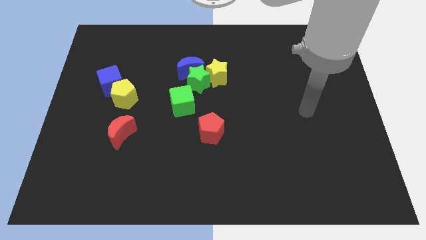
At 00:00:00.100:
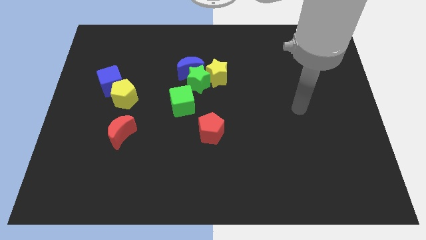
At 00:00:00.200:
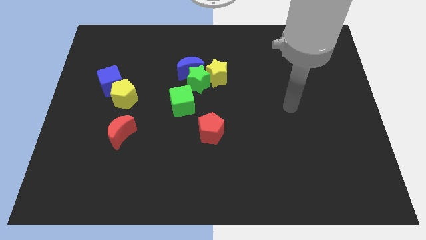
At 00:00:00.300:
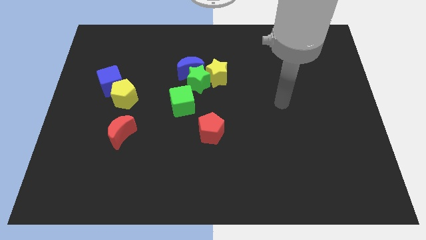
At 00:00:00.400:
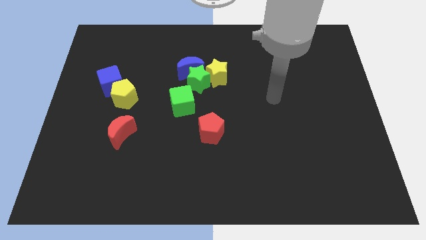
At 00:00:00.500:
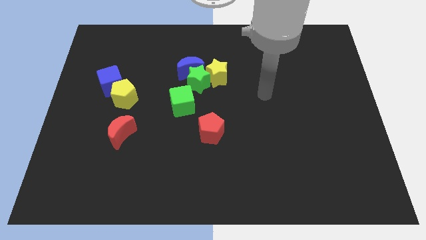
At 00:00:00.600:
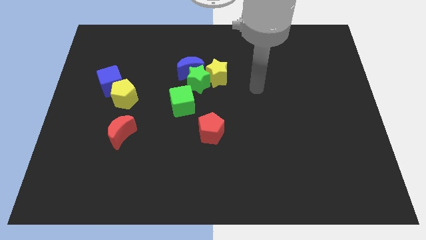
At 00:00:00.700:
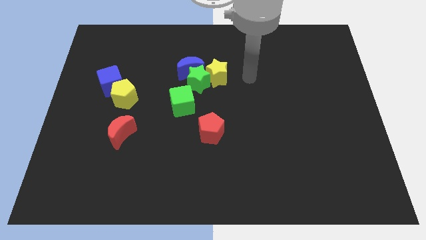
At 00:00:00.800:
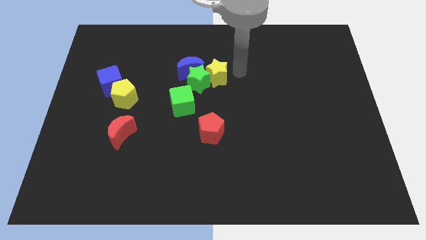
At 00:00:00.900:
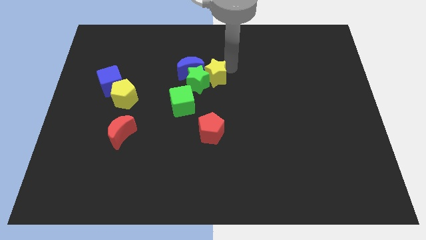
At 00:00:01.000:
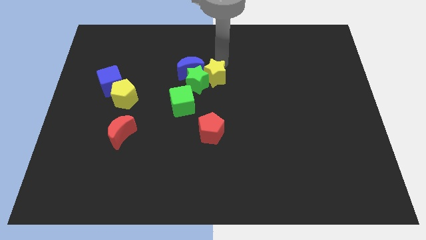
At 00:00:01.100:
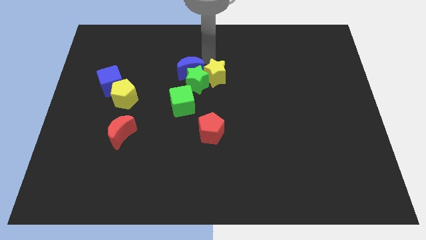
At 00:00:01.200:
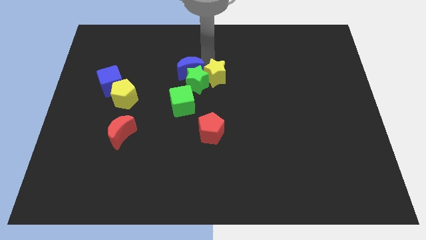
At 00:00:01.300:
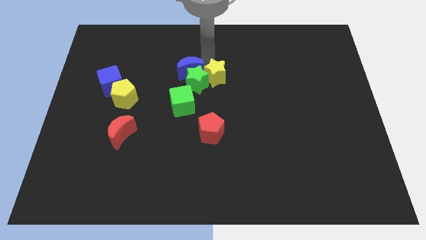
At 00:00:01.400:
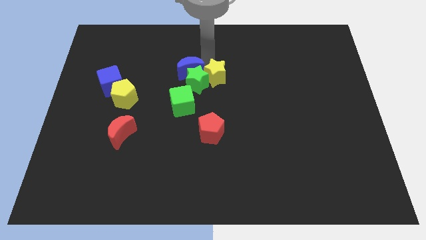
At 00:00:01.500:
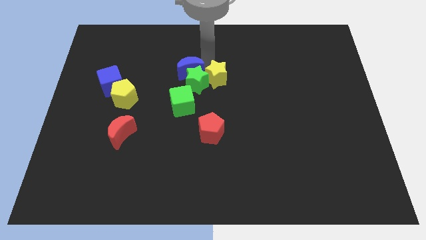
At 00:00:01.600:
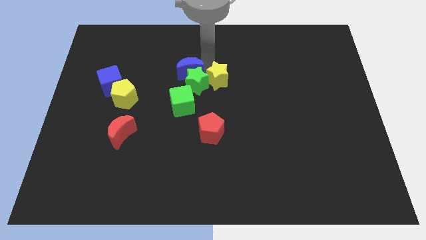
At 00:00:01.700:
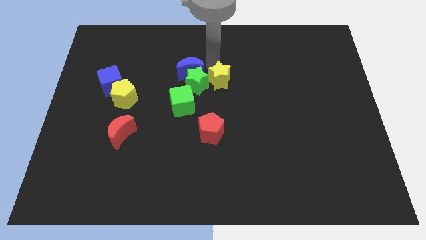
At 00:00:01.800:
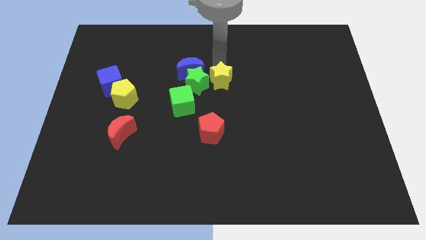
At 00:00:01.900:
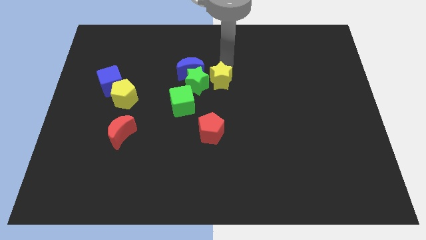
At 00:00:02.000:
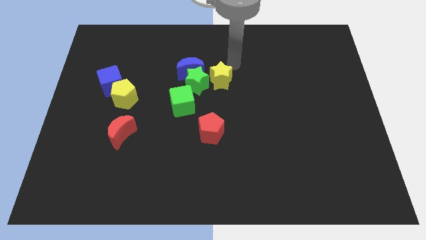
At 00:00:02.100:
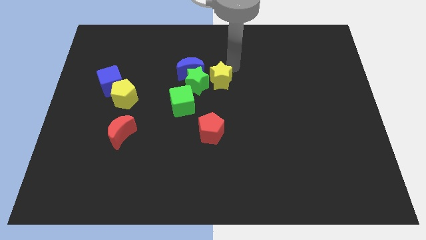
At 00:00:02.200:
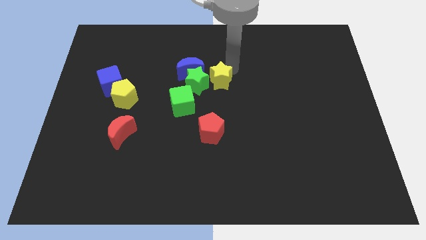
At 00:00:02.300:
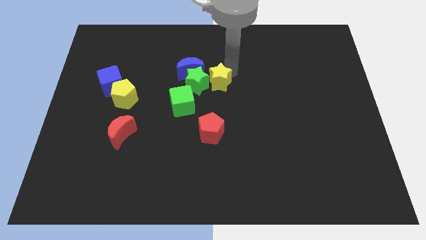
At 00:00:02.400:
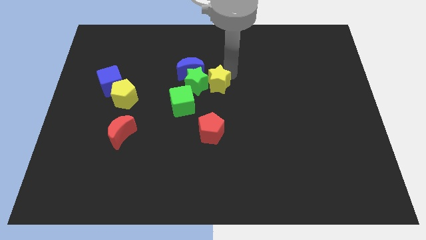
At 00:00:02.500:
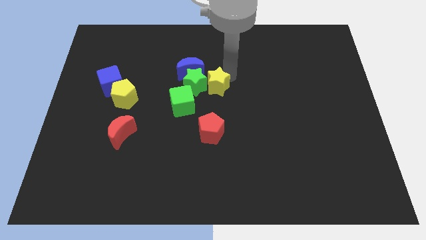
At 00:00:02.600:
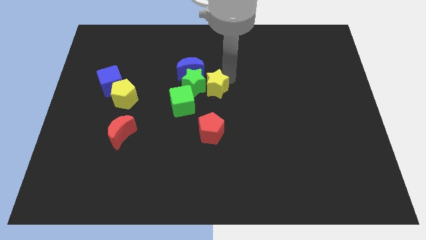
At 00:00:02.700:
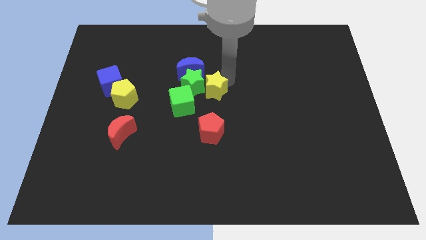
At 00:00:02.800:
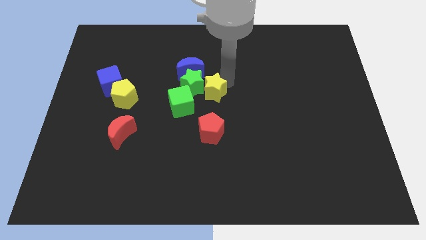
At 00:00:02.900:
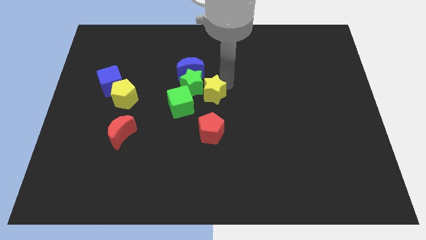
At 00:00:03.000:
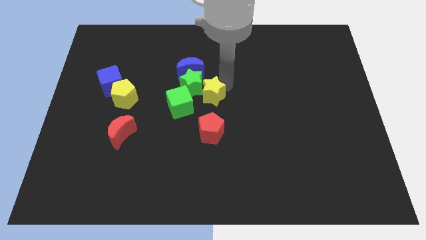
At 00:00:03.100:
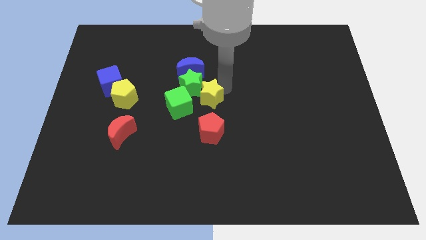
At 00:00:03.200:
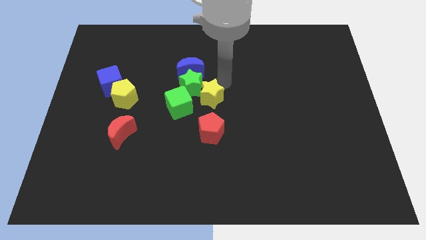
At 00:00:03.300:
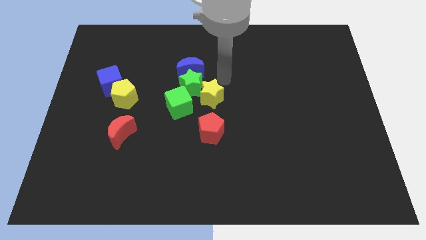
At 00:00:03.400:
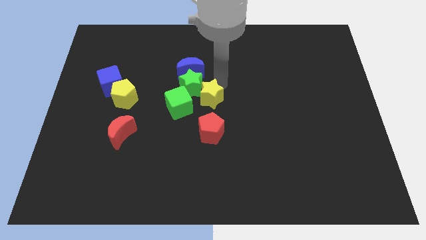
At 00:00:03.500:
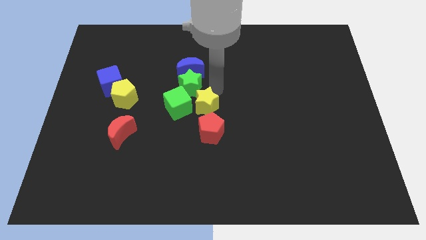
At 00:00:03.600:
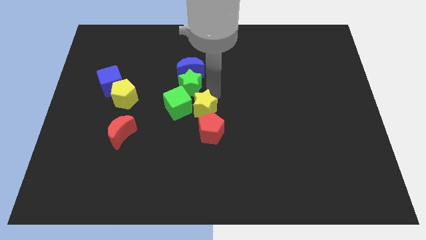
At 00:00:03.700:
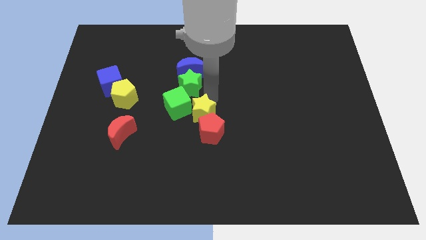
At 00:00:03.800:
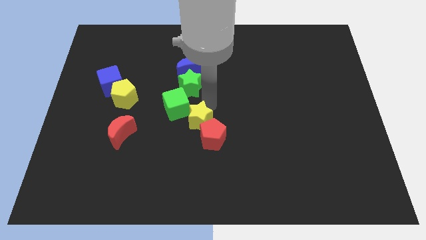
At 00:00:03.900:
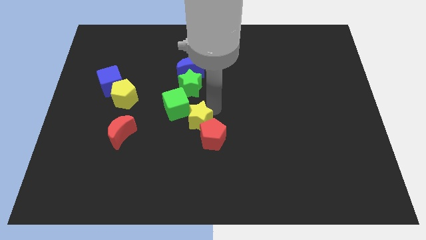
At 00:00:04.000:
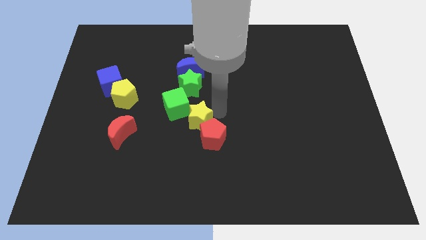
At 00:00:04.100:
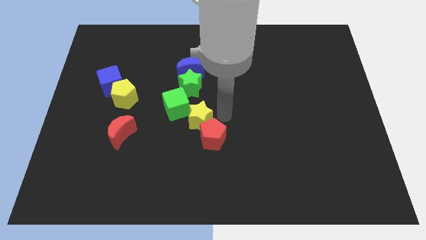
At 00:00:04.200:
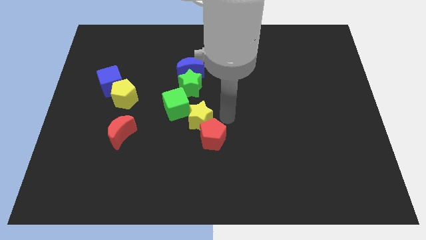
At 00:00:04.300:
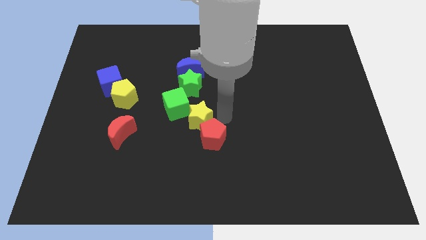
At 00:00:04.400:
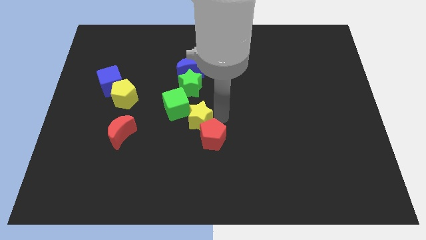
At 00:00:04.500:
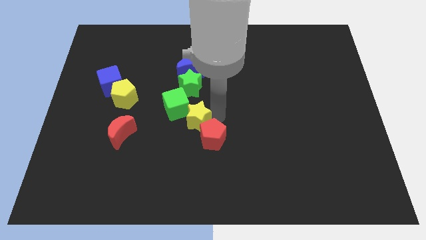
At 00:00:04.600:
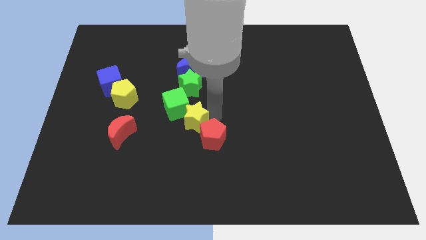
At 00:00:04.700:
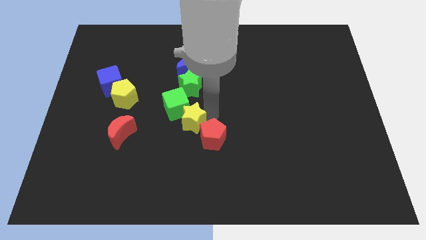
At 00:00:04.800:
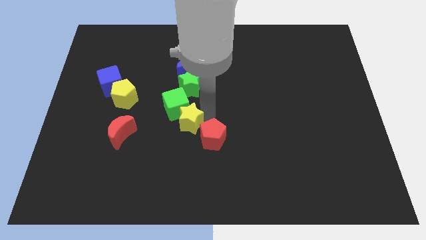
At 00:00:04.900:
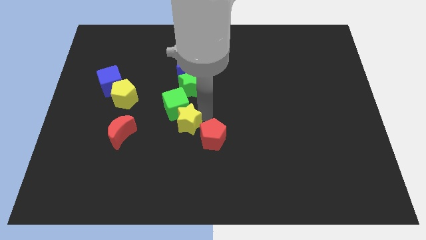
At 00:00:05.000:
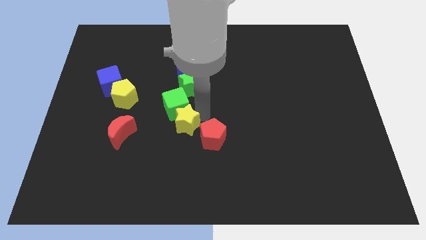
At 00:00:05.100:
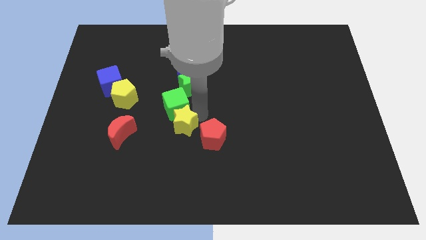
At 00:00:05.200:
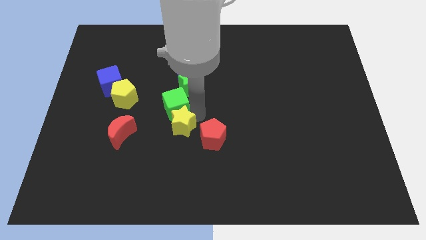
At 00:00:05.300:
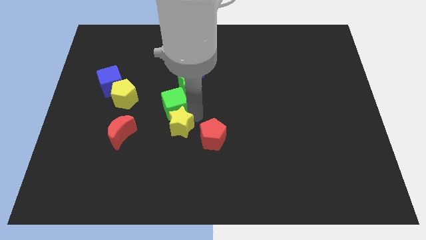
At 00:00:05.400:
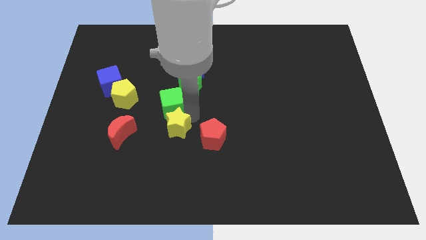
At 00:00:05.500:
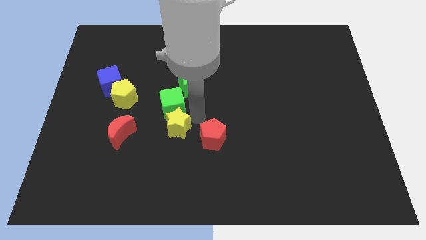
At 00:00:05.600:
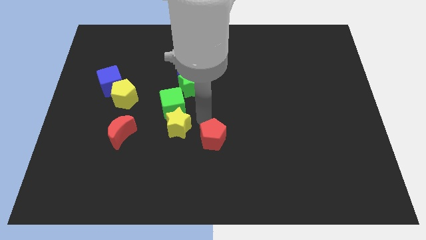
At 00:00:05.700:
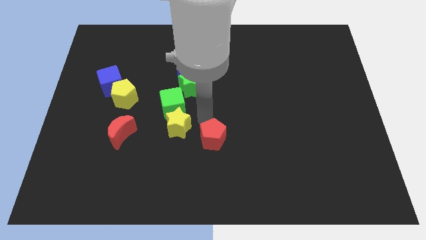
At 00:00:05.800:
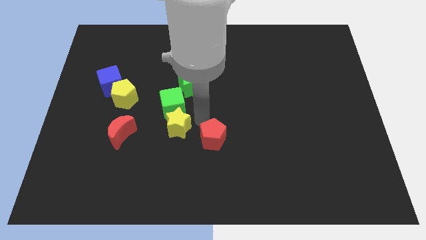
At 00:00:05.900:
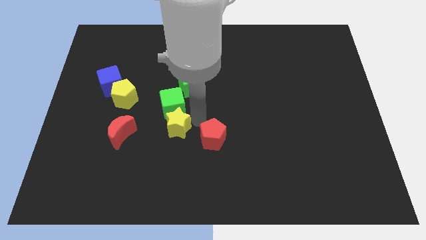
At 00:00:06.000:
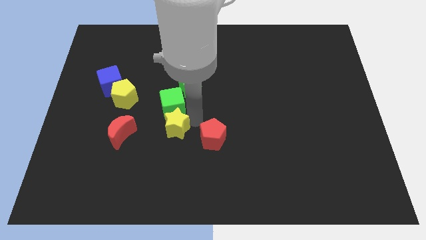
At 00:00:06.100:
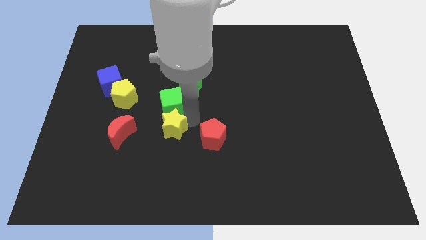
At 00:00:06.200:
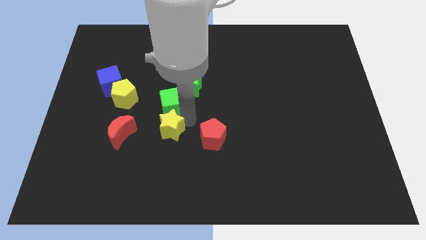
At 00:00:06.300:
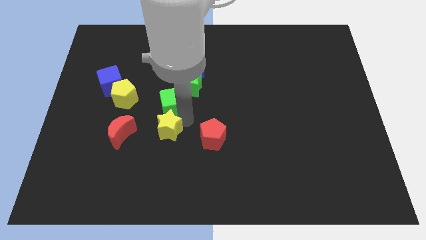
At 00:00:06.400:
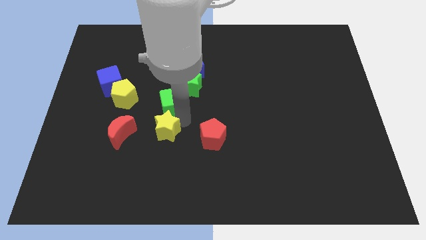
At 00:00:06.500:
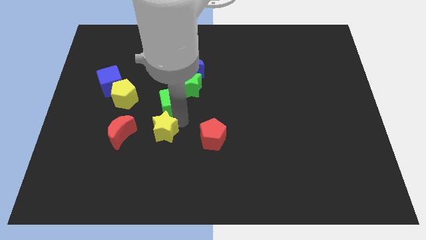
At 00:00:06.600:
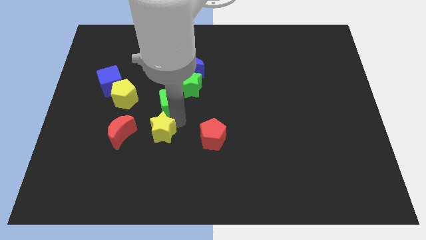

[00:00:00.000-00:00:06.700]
slide the yellow star diagonally down and left

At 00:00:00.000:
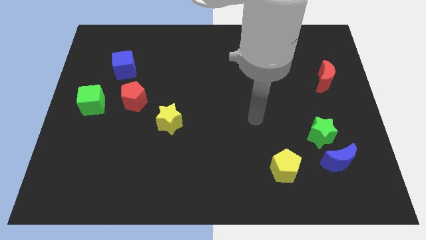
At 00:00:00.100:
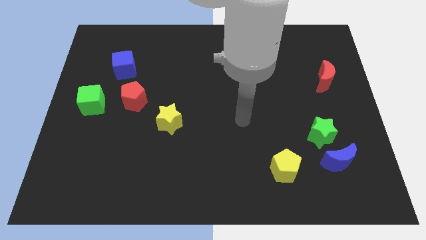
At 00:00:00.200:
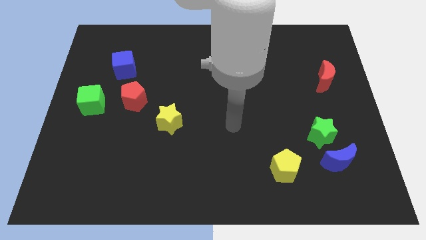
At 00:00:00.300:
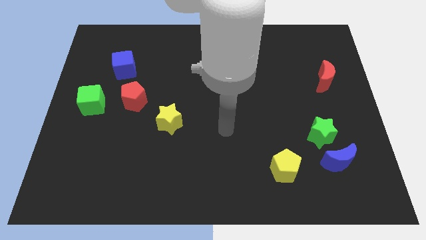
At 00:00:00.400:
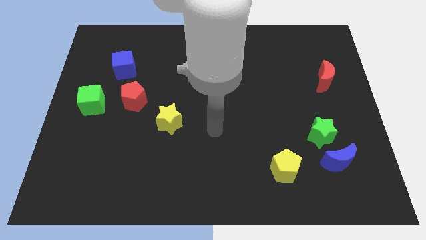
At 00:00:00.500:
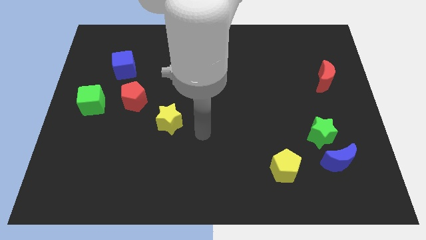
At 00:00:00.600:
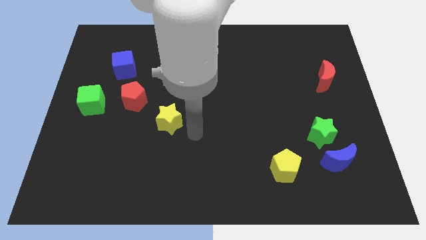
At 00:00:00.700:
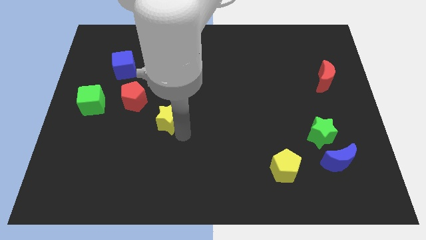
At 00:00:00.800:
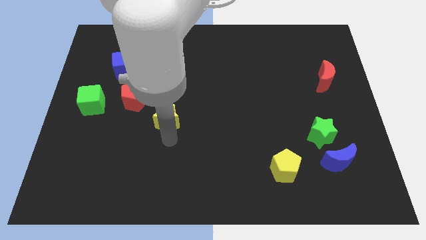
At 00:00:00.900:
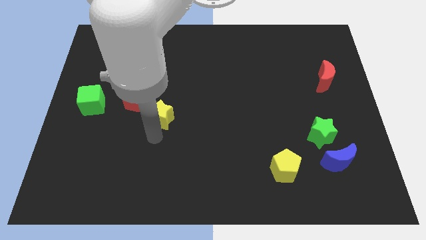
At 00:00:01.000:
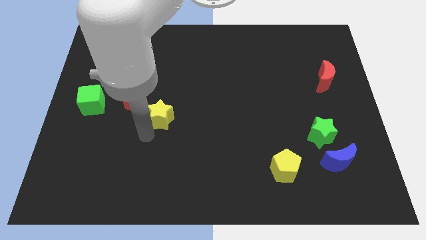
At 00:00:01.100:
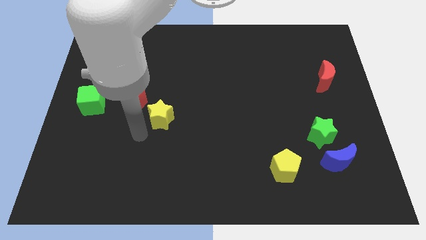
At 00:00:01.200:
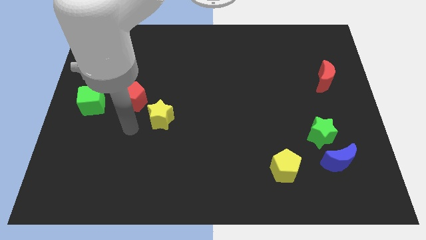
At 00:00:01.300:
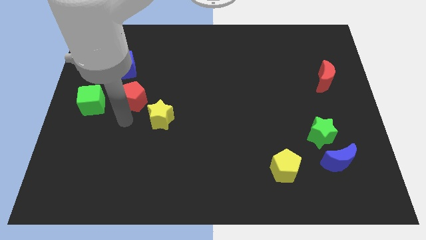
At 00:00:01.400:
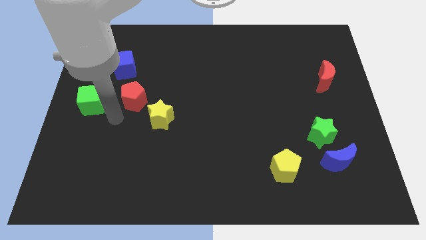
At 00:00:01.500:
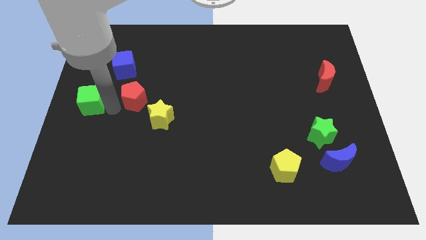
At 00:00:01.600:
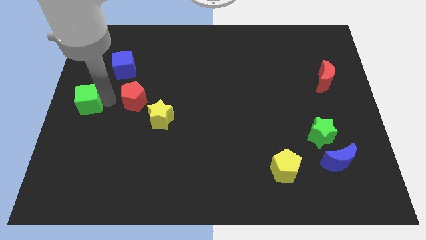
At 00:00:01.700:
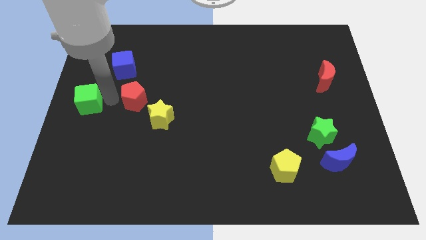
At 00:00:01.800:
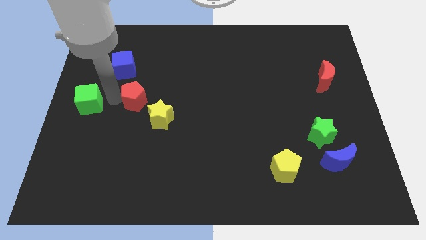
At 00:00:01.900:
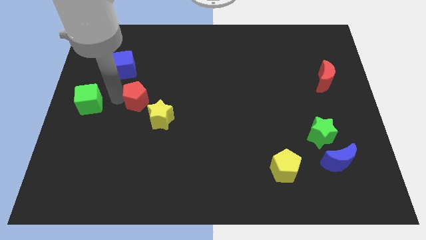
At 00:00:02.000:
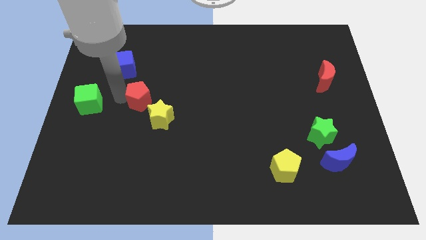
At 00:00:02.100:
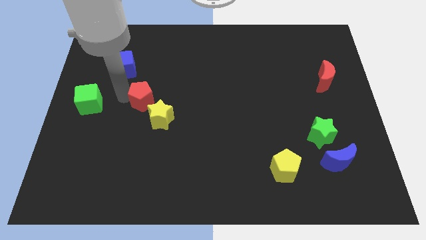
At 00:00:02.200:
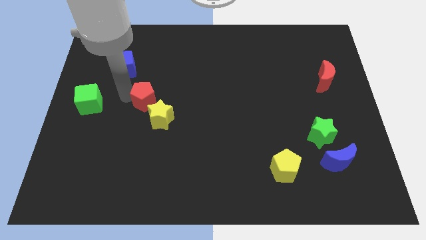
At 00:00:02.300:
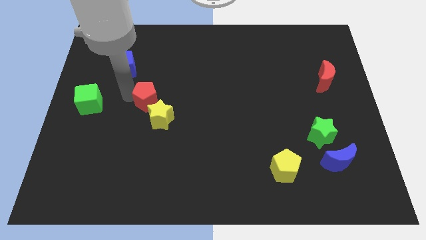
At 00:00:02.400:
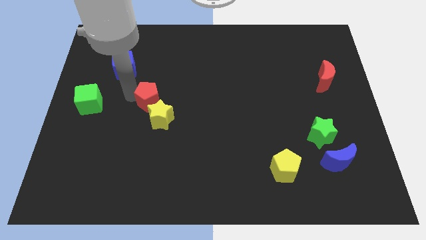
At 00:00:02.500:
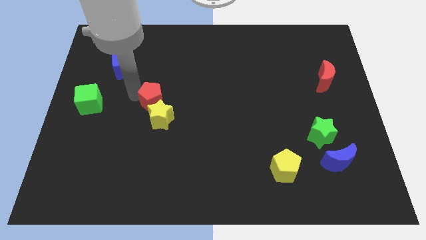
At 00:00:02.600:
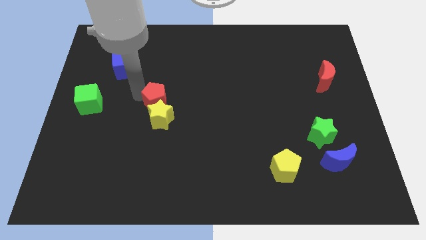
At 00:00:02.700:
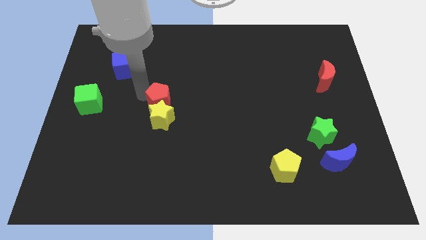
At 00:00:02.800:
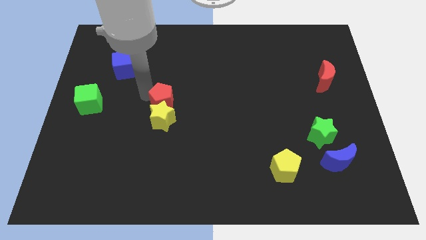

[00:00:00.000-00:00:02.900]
slide the red pentagon slightly to the right
